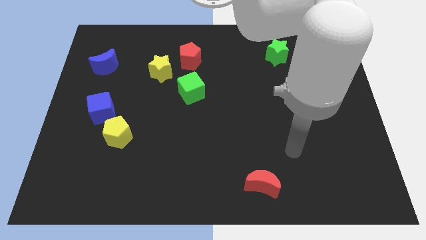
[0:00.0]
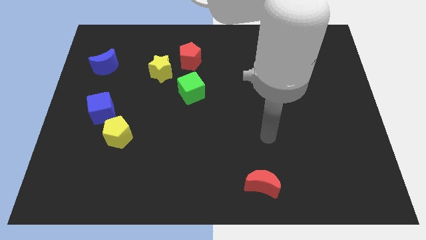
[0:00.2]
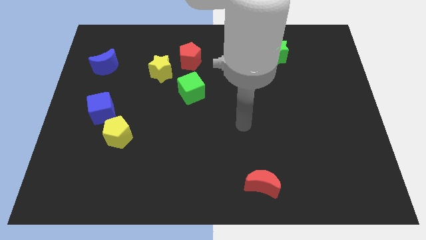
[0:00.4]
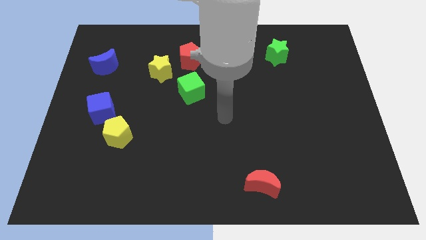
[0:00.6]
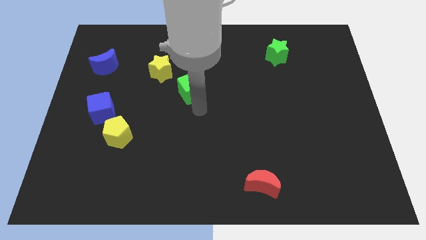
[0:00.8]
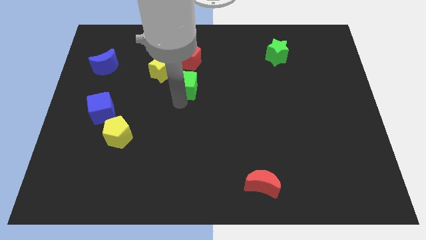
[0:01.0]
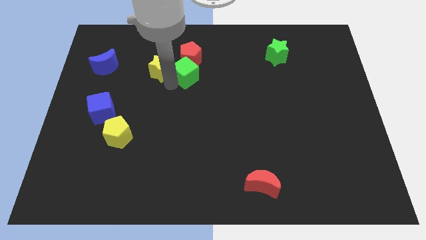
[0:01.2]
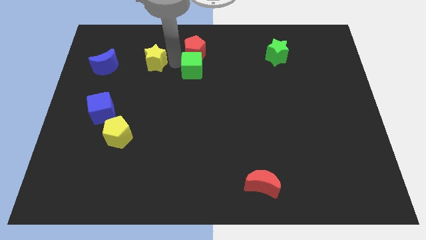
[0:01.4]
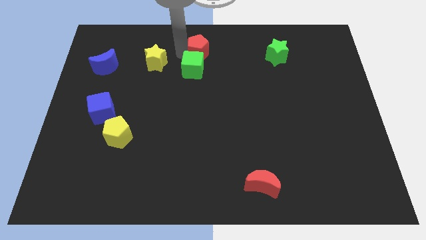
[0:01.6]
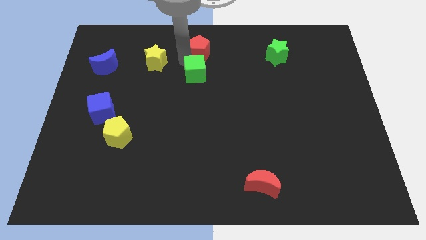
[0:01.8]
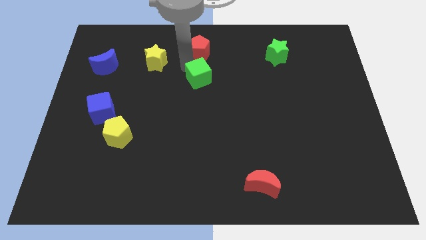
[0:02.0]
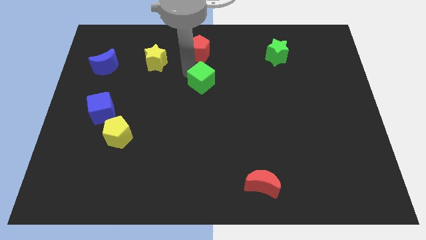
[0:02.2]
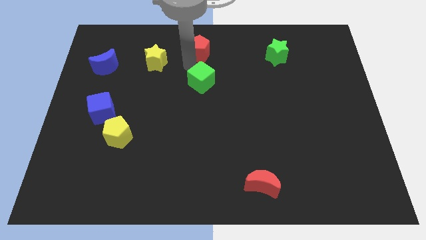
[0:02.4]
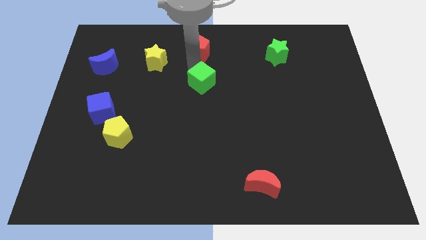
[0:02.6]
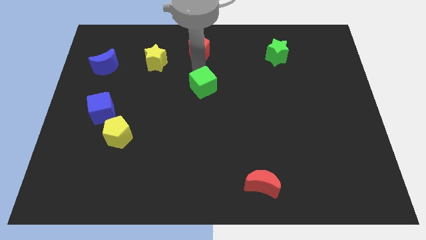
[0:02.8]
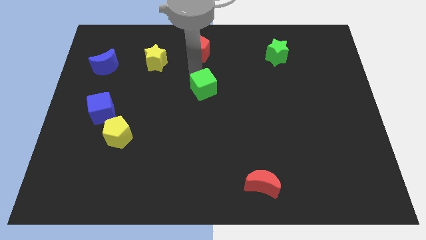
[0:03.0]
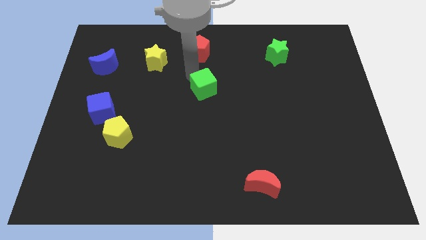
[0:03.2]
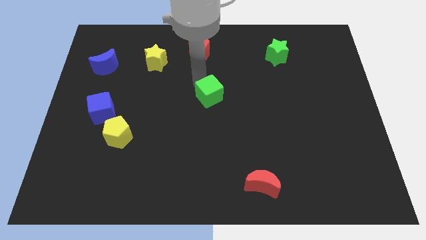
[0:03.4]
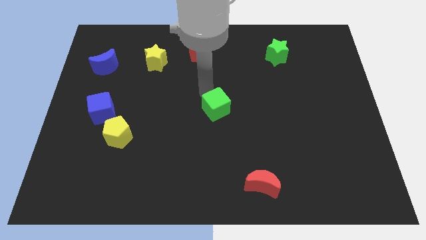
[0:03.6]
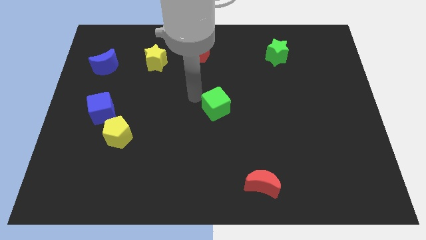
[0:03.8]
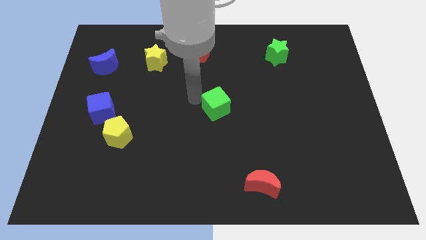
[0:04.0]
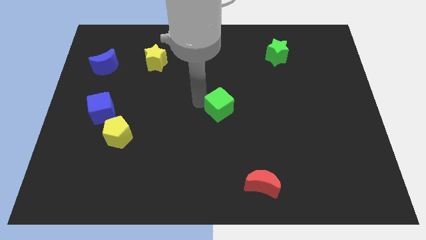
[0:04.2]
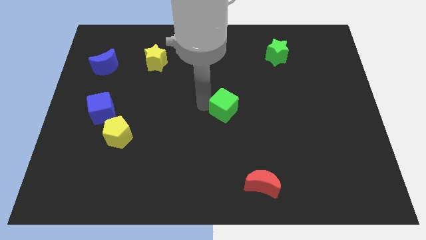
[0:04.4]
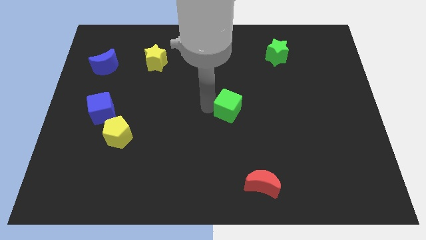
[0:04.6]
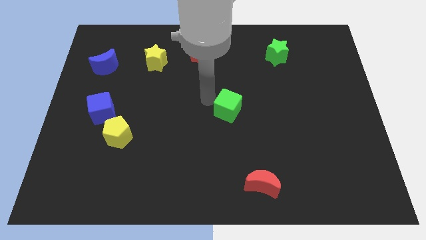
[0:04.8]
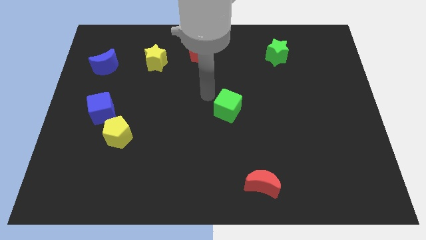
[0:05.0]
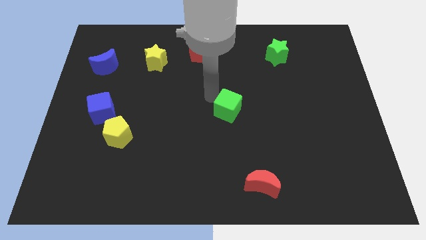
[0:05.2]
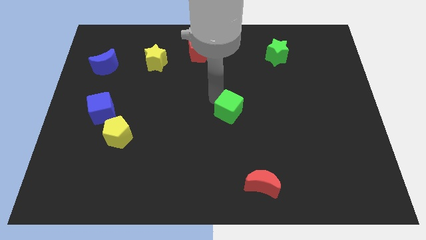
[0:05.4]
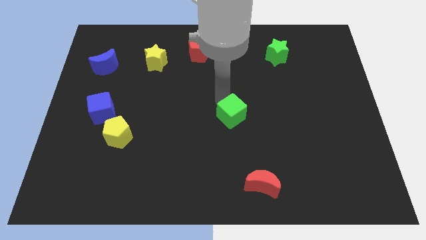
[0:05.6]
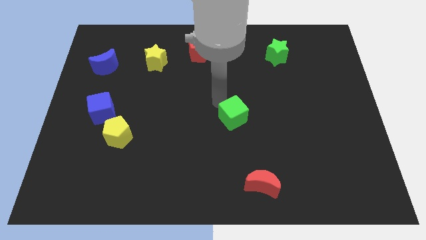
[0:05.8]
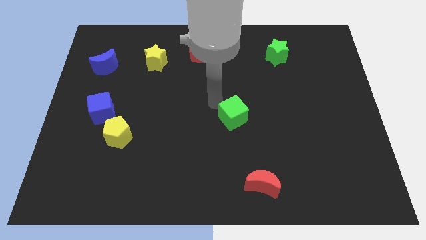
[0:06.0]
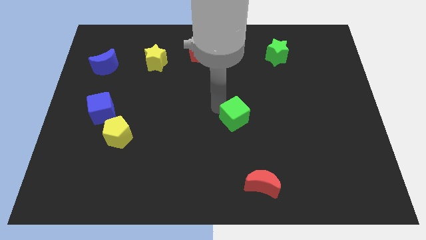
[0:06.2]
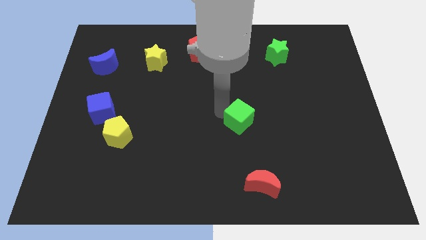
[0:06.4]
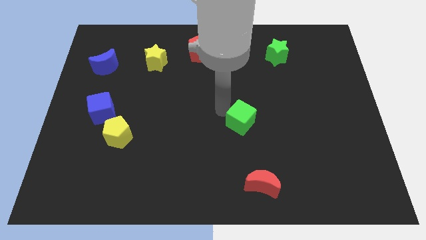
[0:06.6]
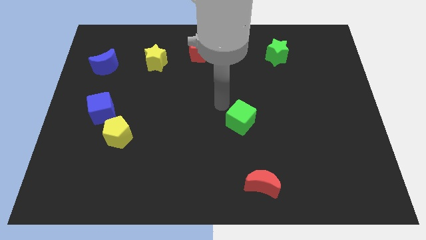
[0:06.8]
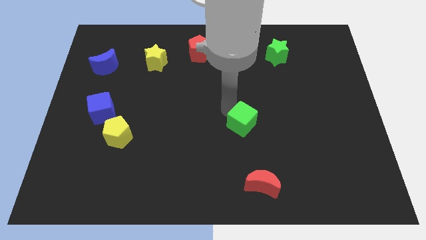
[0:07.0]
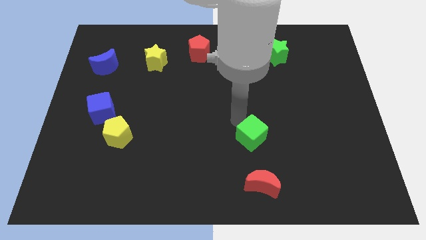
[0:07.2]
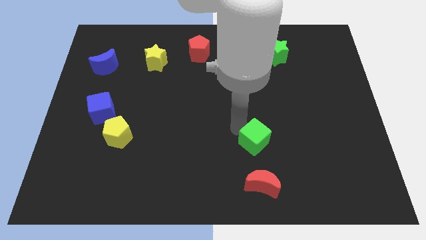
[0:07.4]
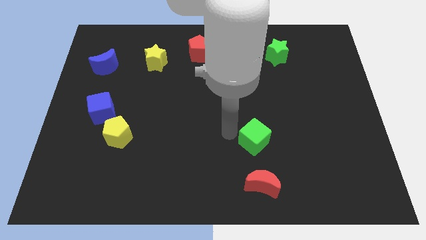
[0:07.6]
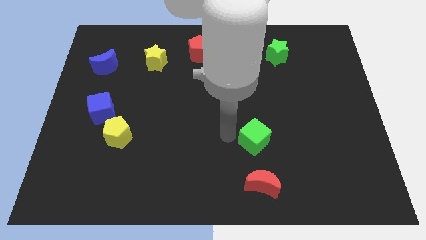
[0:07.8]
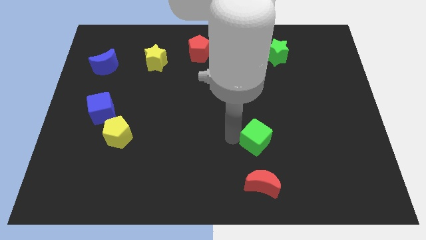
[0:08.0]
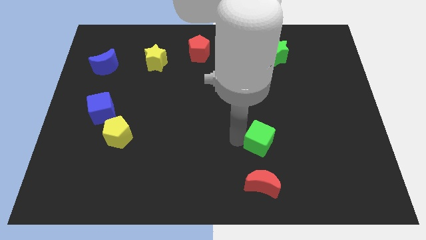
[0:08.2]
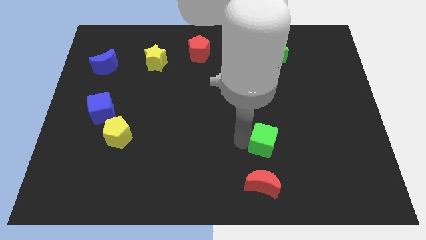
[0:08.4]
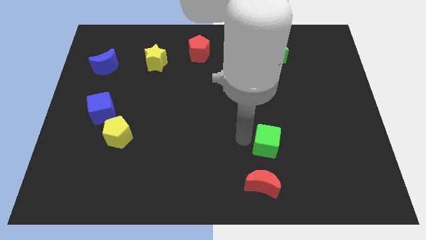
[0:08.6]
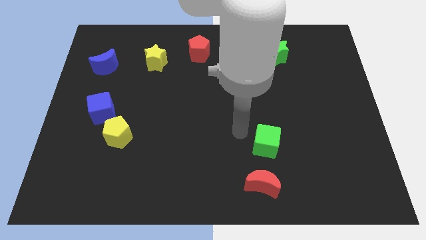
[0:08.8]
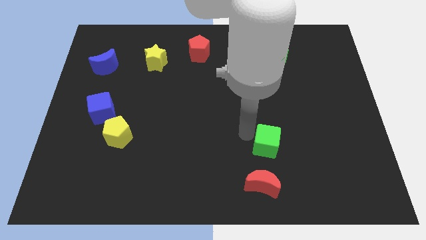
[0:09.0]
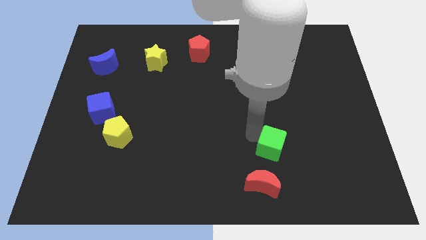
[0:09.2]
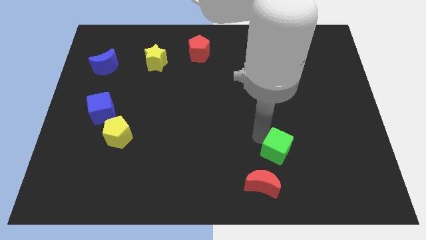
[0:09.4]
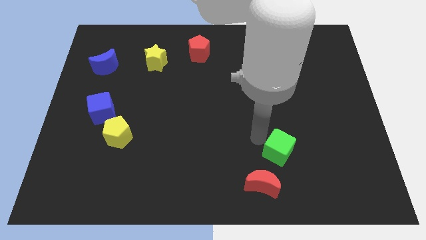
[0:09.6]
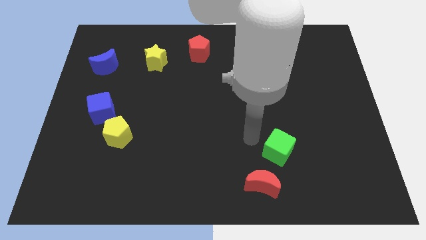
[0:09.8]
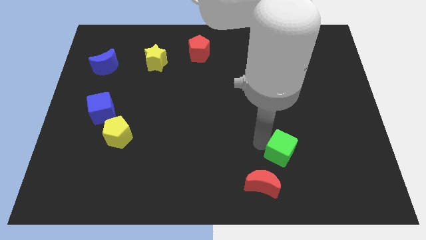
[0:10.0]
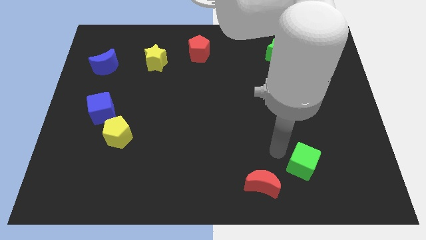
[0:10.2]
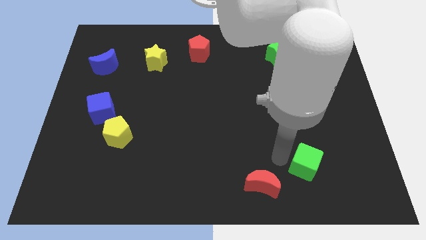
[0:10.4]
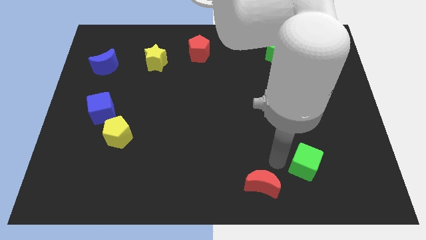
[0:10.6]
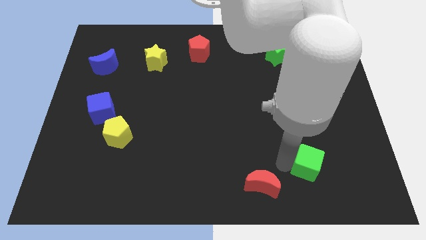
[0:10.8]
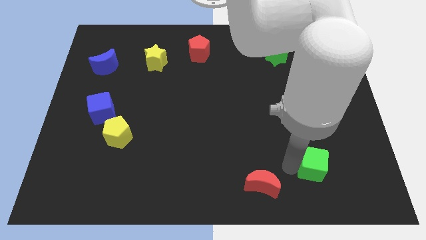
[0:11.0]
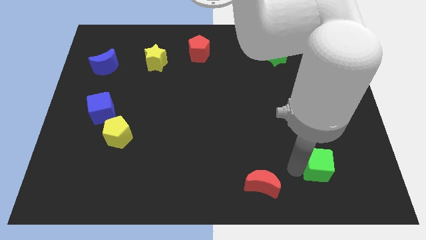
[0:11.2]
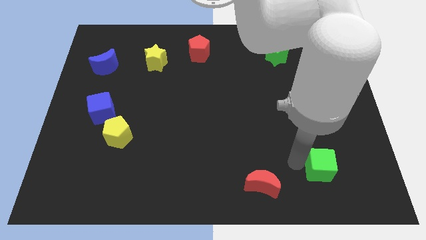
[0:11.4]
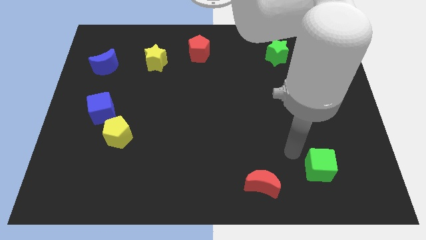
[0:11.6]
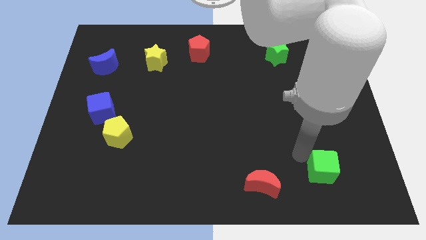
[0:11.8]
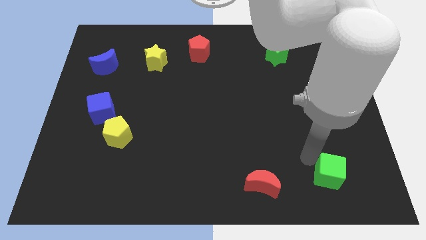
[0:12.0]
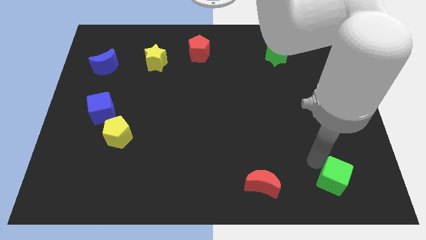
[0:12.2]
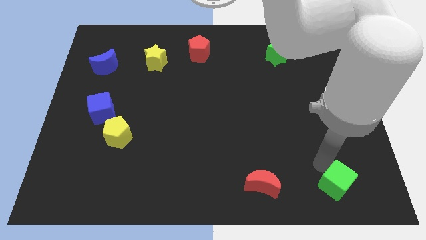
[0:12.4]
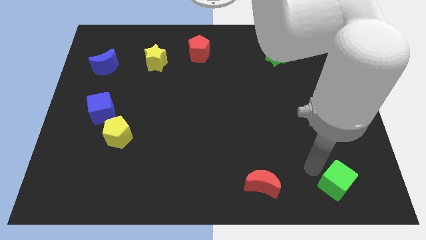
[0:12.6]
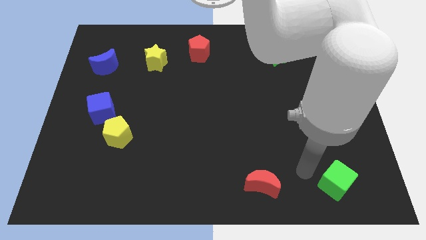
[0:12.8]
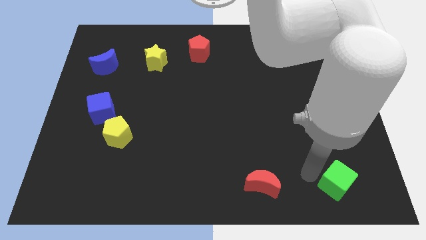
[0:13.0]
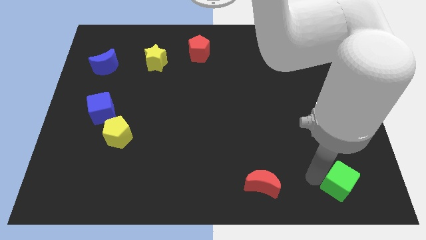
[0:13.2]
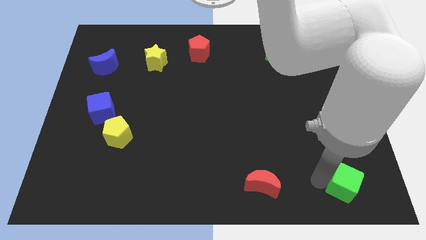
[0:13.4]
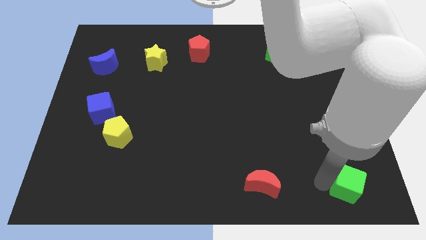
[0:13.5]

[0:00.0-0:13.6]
put the green cube to the bottom right of the board
